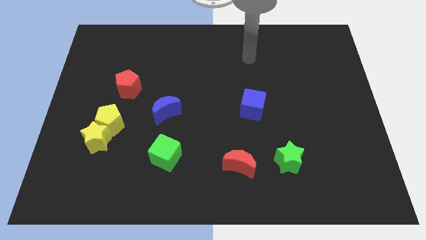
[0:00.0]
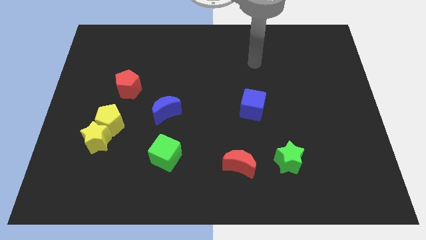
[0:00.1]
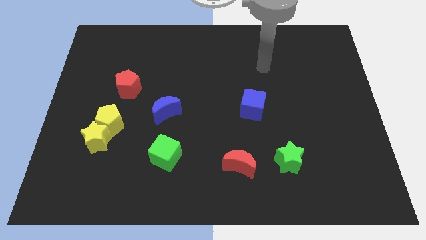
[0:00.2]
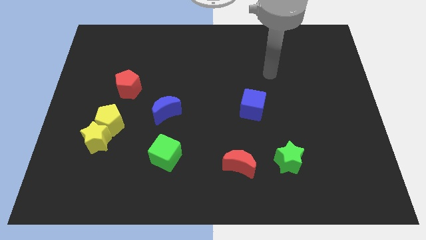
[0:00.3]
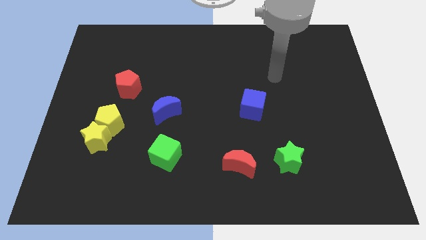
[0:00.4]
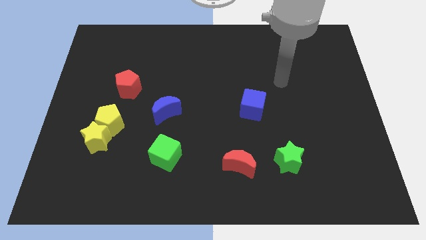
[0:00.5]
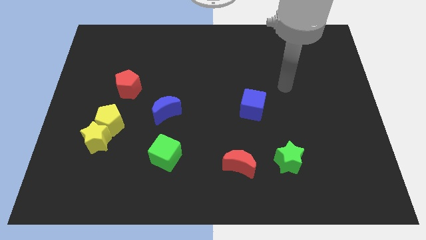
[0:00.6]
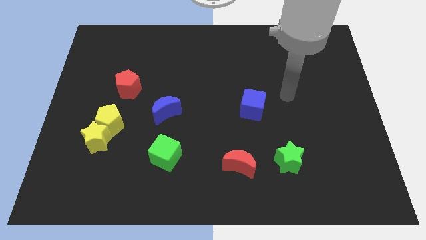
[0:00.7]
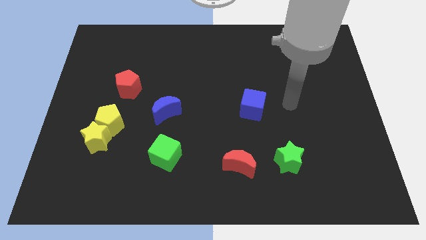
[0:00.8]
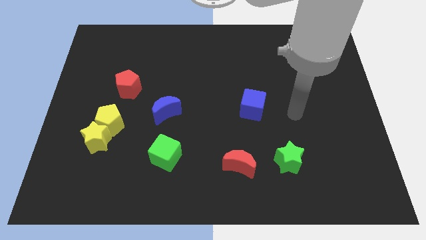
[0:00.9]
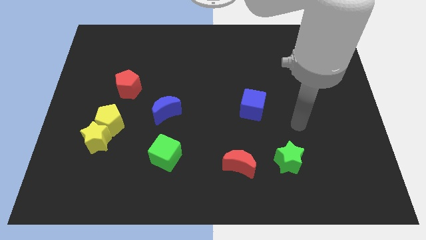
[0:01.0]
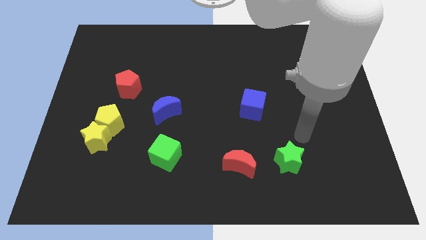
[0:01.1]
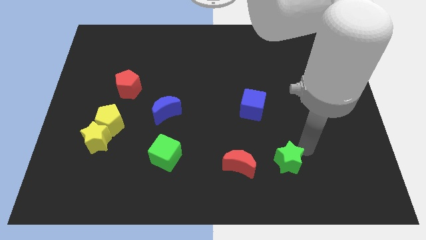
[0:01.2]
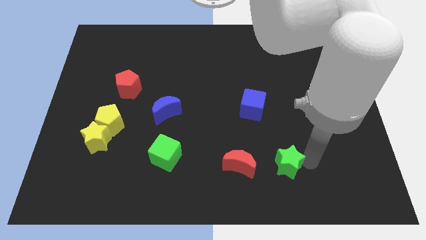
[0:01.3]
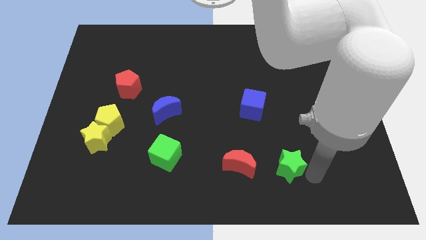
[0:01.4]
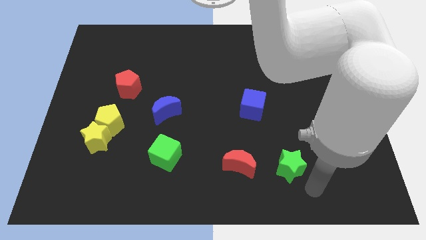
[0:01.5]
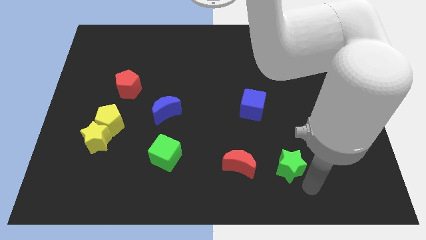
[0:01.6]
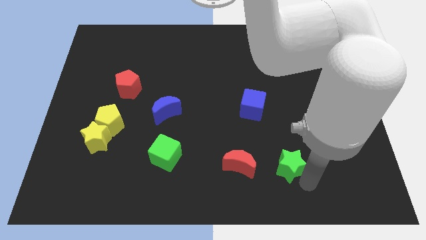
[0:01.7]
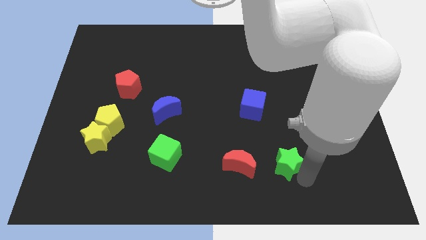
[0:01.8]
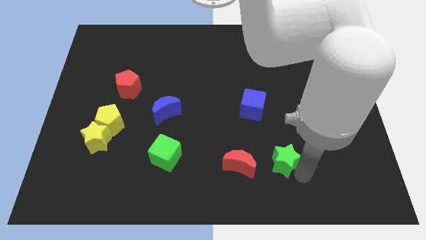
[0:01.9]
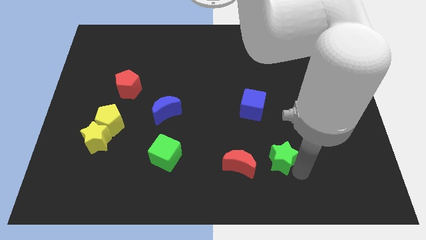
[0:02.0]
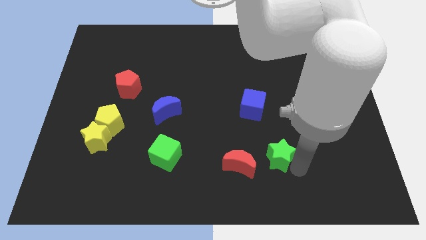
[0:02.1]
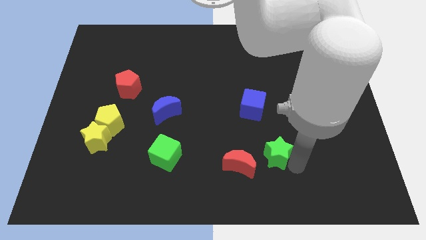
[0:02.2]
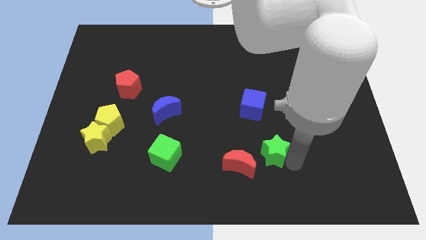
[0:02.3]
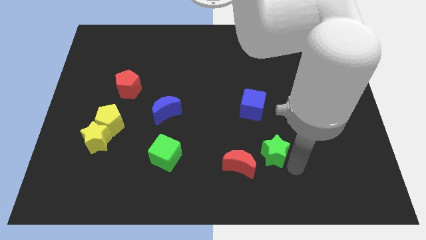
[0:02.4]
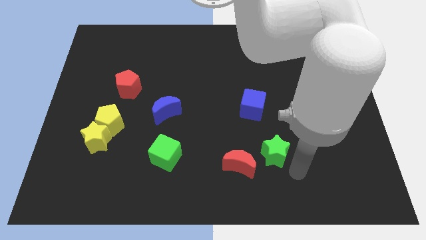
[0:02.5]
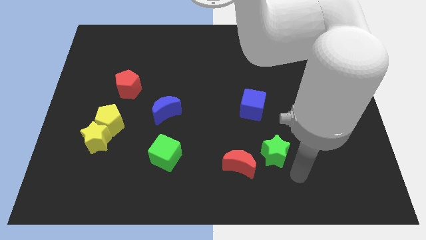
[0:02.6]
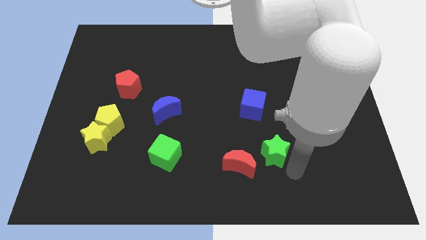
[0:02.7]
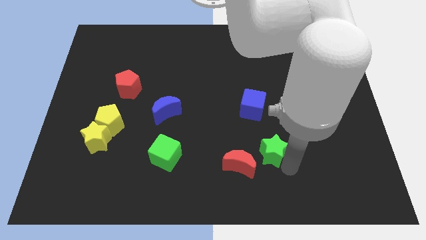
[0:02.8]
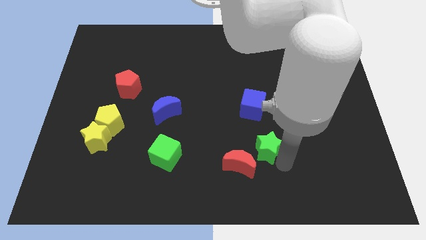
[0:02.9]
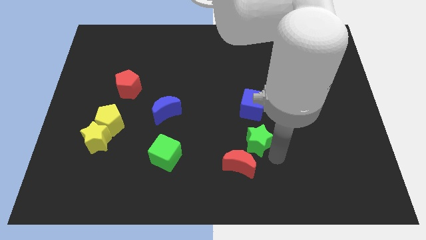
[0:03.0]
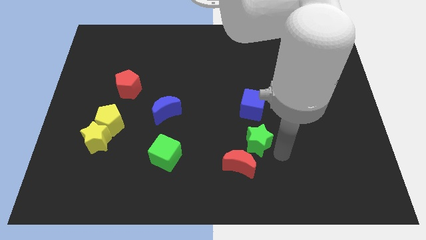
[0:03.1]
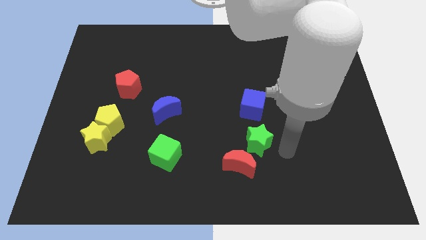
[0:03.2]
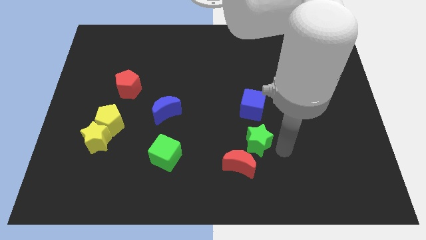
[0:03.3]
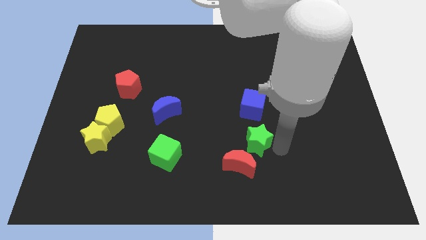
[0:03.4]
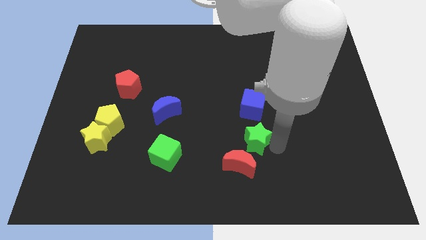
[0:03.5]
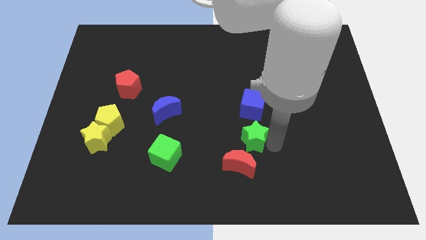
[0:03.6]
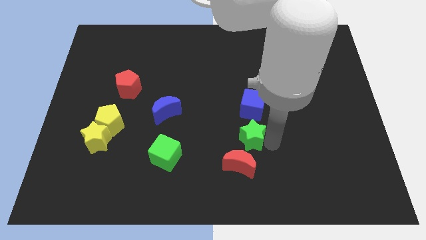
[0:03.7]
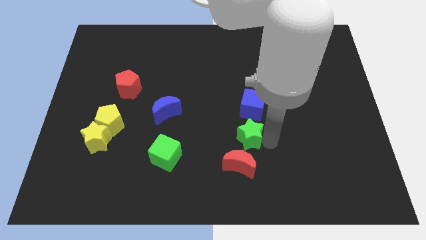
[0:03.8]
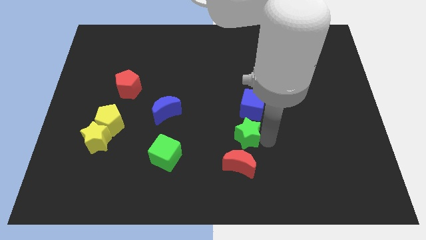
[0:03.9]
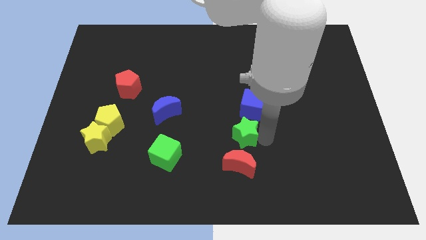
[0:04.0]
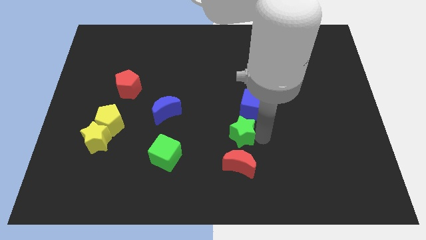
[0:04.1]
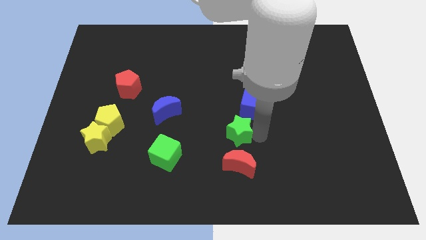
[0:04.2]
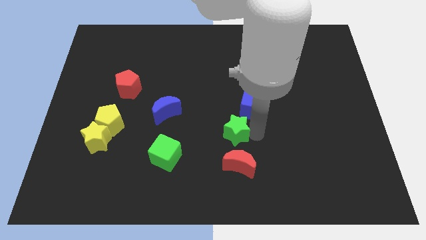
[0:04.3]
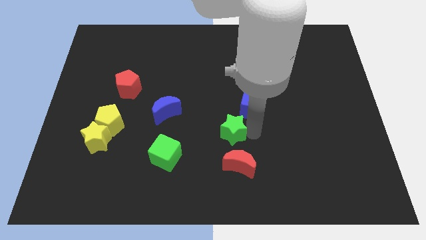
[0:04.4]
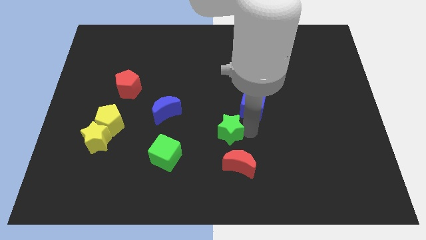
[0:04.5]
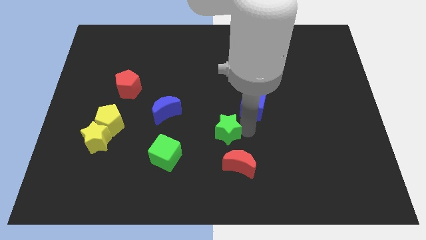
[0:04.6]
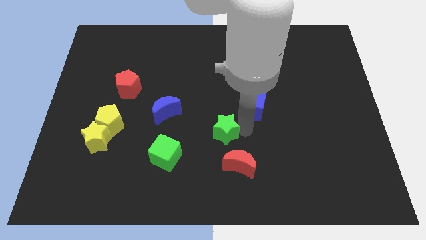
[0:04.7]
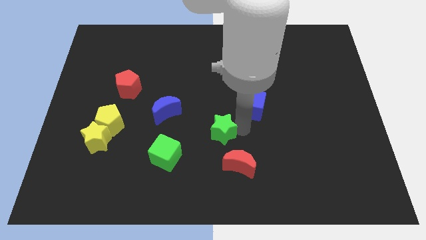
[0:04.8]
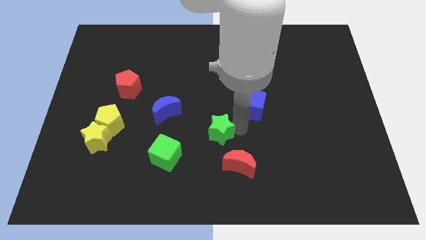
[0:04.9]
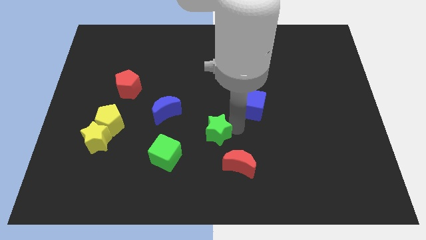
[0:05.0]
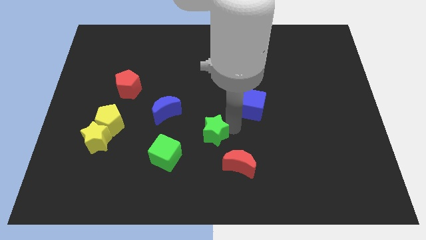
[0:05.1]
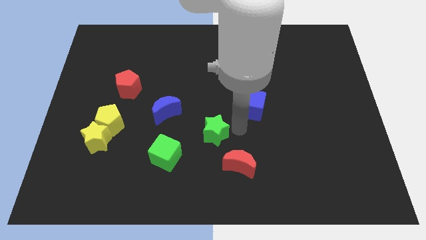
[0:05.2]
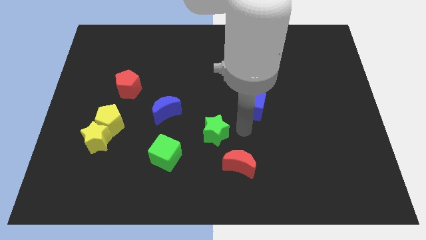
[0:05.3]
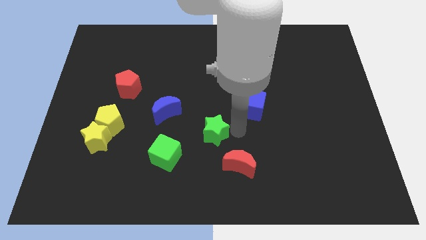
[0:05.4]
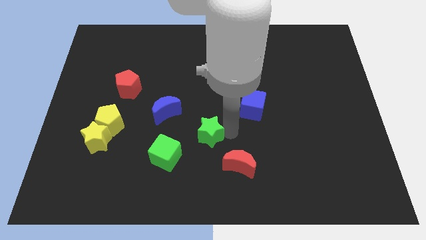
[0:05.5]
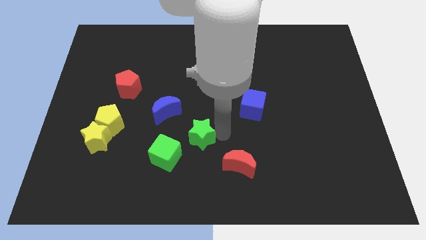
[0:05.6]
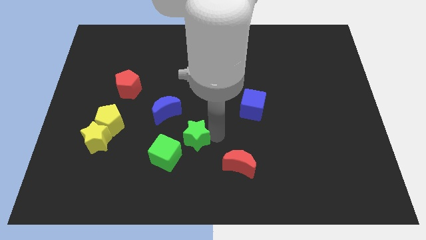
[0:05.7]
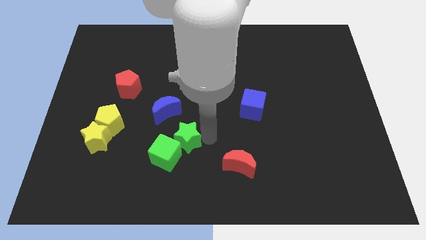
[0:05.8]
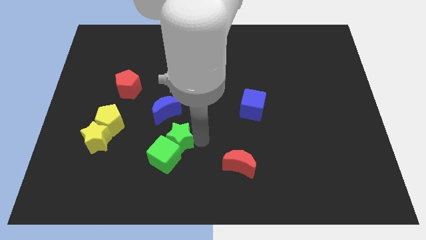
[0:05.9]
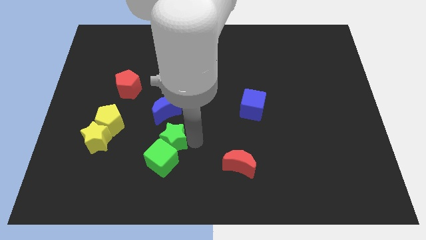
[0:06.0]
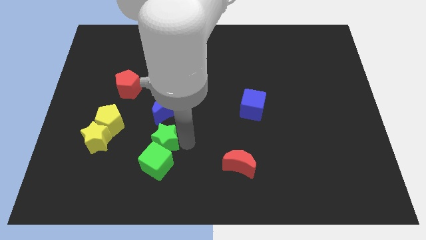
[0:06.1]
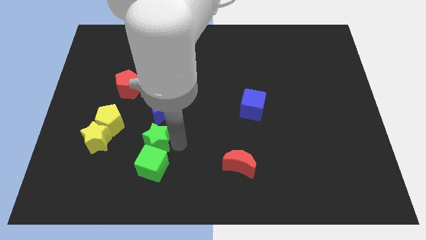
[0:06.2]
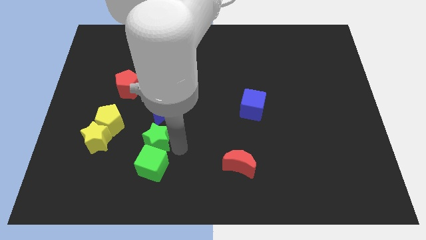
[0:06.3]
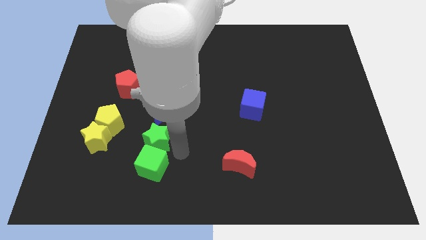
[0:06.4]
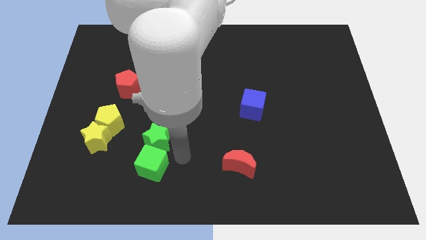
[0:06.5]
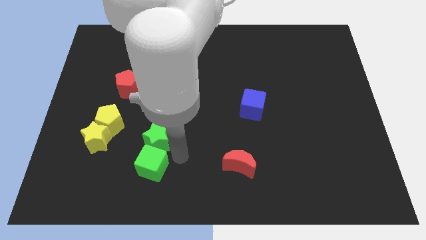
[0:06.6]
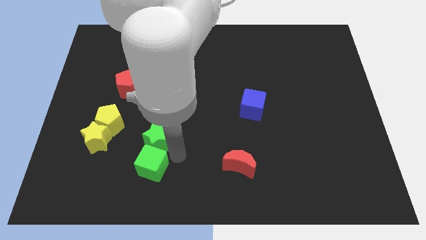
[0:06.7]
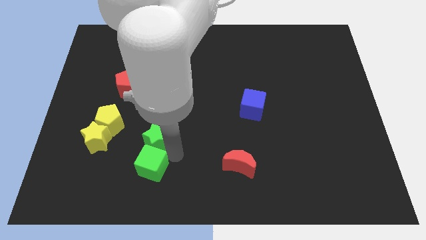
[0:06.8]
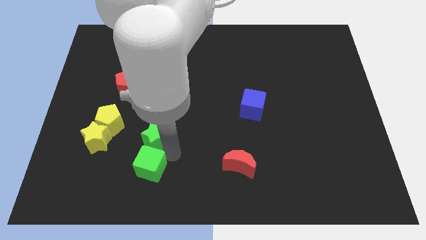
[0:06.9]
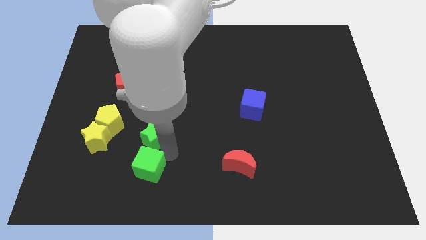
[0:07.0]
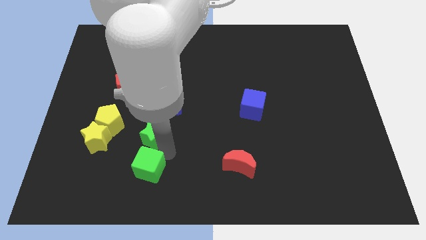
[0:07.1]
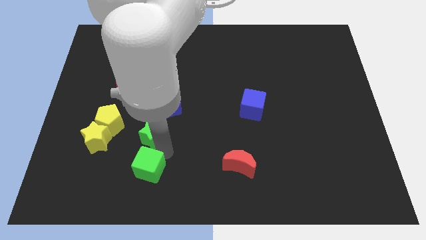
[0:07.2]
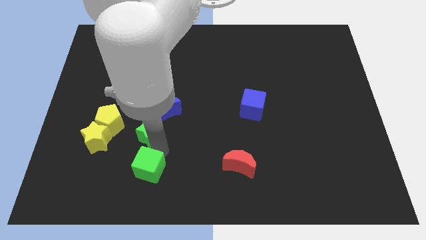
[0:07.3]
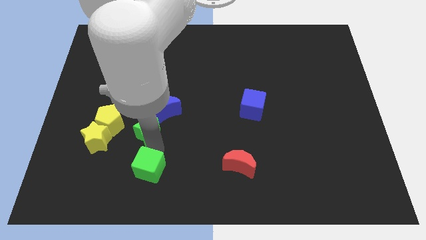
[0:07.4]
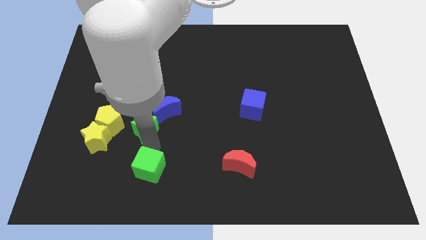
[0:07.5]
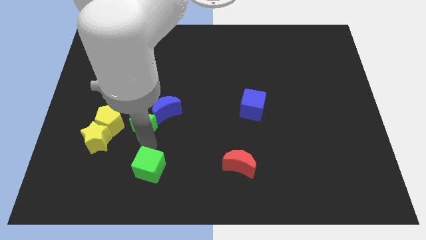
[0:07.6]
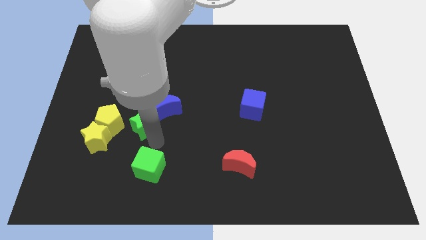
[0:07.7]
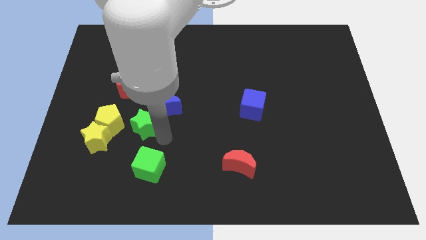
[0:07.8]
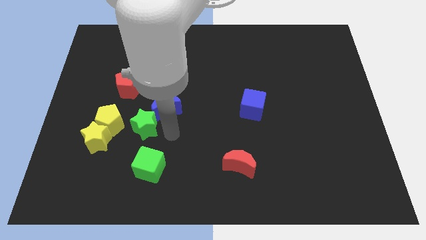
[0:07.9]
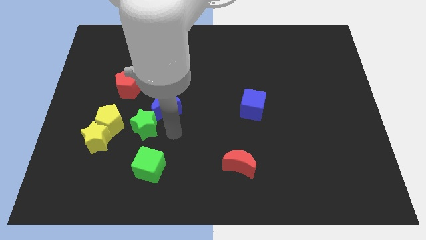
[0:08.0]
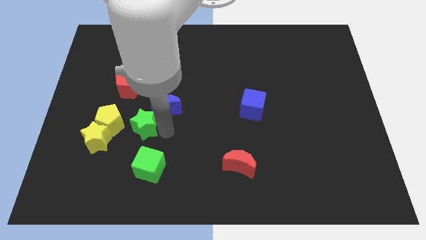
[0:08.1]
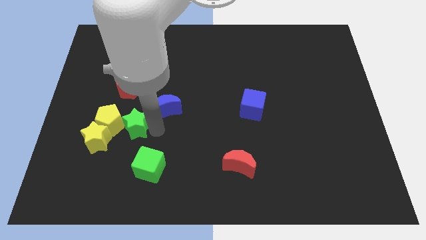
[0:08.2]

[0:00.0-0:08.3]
move the green star to the yellow pentagon
